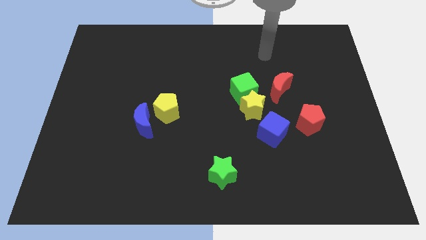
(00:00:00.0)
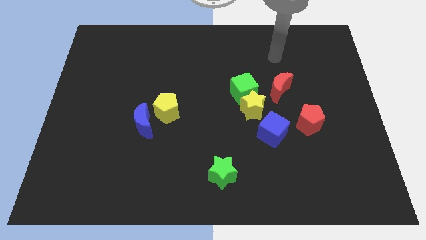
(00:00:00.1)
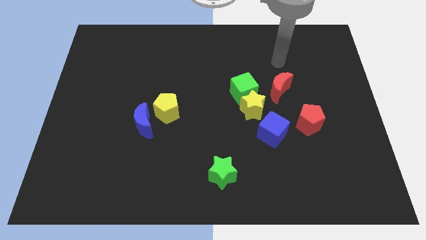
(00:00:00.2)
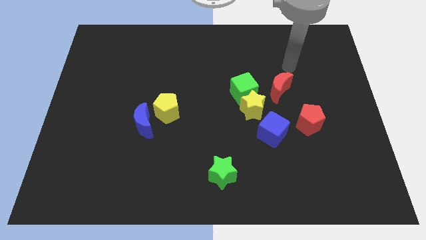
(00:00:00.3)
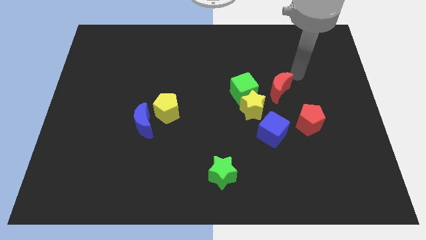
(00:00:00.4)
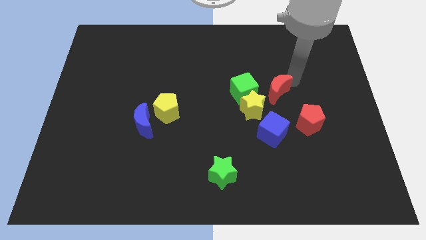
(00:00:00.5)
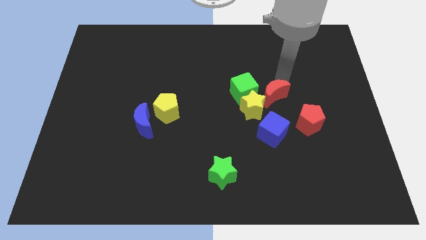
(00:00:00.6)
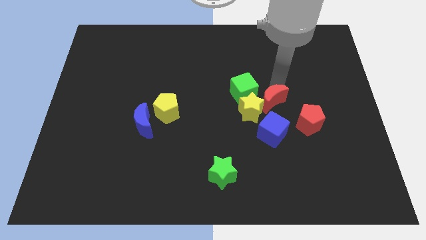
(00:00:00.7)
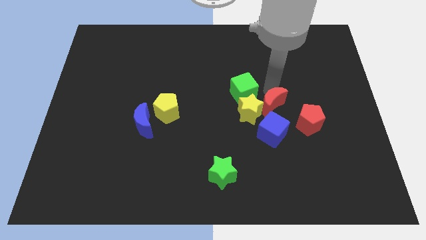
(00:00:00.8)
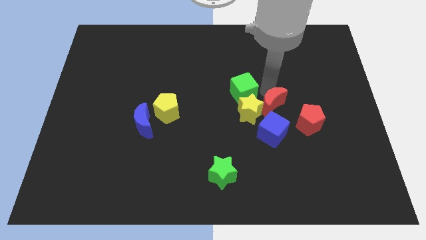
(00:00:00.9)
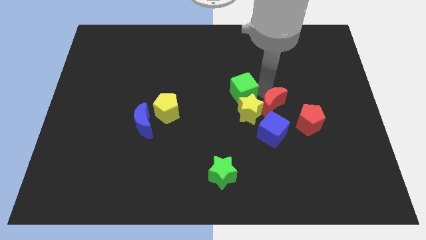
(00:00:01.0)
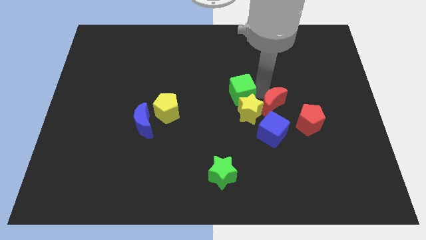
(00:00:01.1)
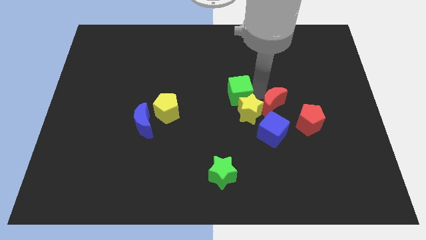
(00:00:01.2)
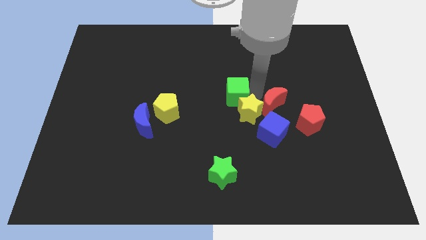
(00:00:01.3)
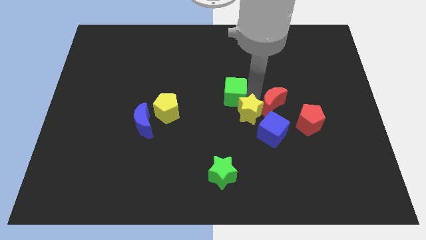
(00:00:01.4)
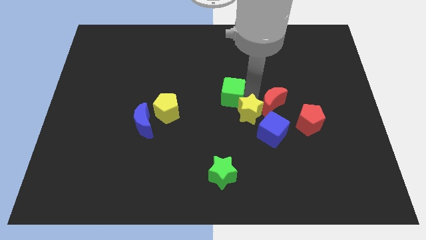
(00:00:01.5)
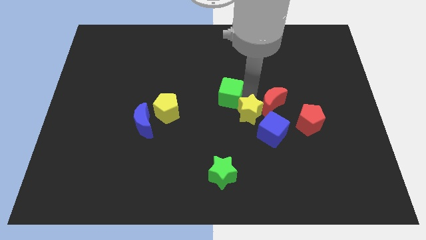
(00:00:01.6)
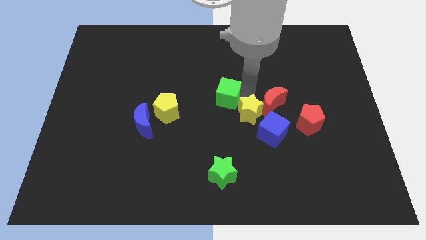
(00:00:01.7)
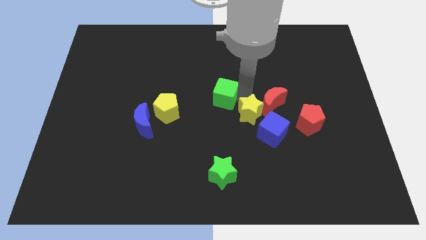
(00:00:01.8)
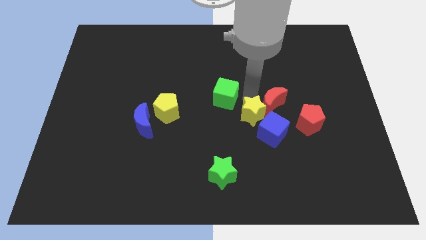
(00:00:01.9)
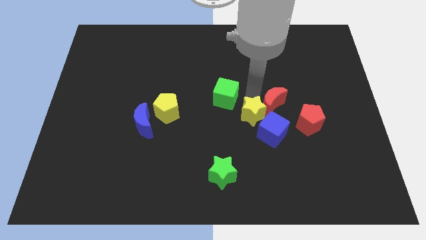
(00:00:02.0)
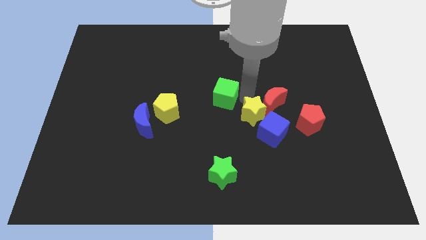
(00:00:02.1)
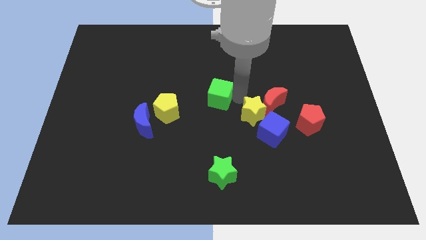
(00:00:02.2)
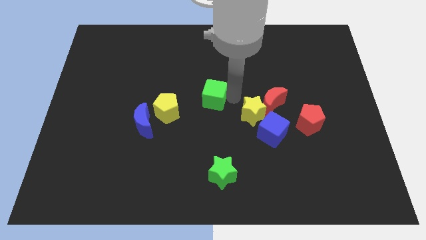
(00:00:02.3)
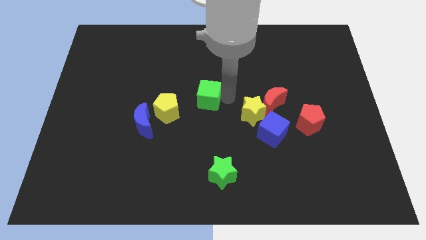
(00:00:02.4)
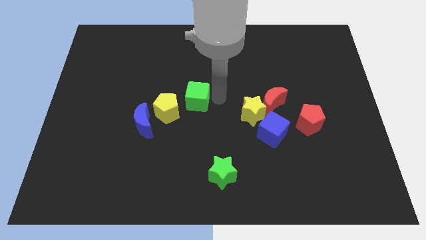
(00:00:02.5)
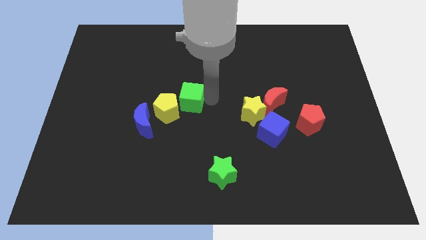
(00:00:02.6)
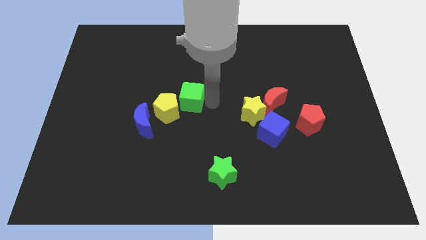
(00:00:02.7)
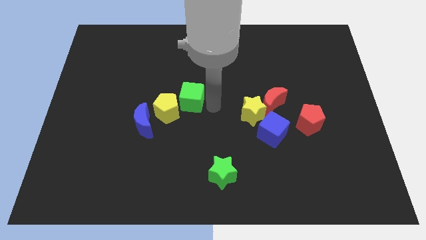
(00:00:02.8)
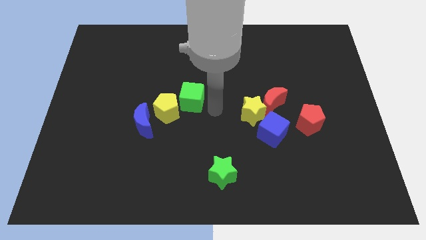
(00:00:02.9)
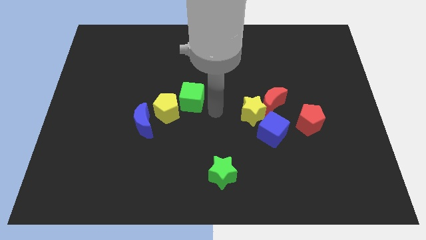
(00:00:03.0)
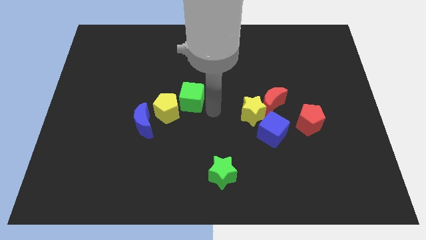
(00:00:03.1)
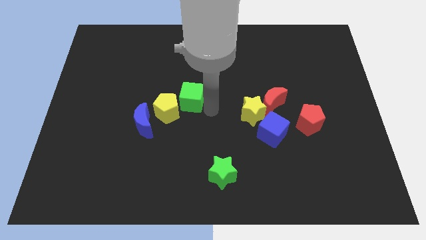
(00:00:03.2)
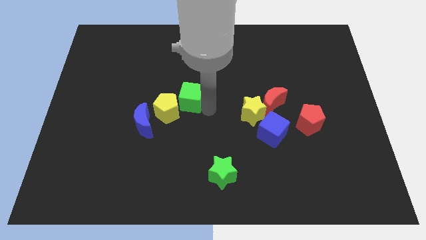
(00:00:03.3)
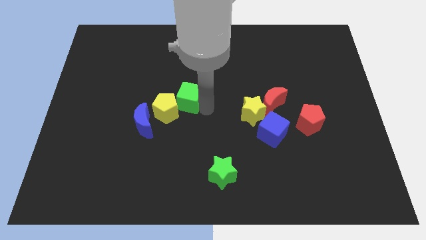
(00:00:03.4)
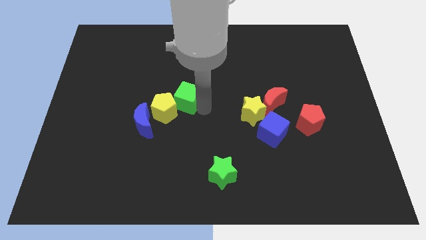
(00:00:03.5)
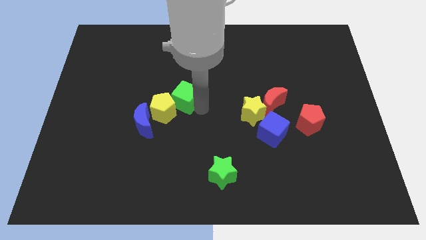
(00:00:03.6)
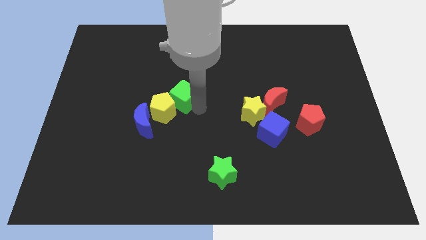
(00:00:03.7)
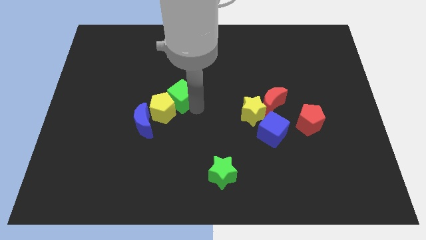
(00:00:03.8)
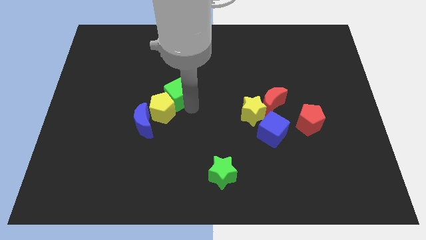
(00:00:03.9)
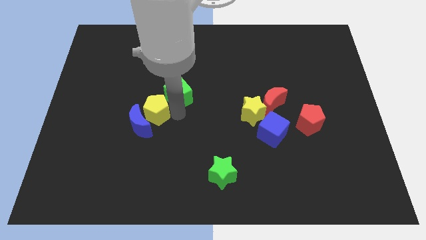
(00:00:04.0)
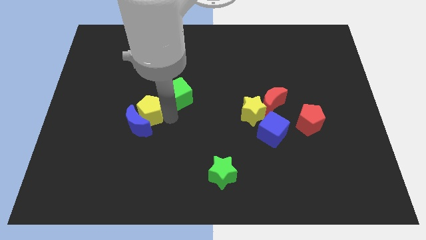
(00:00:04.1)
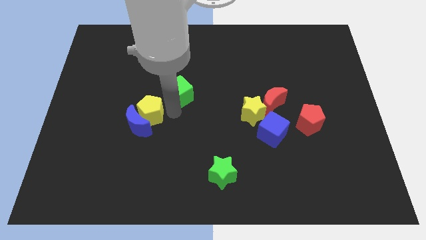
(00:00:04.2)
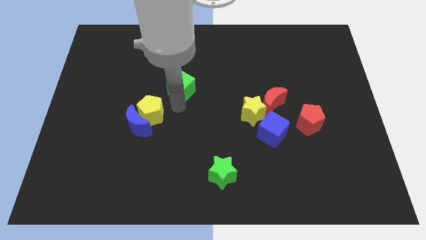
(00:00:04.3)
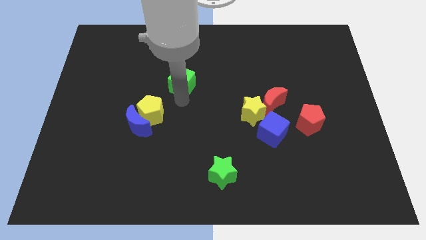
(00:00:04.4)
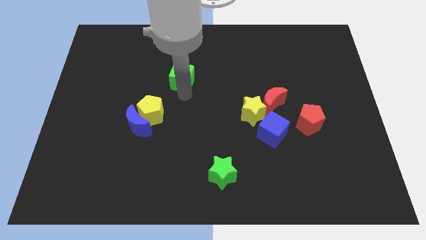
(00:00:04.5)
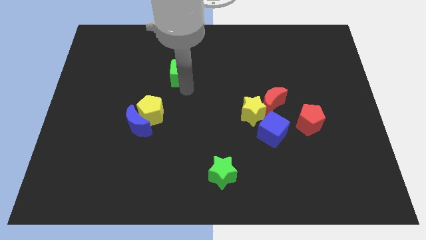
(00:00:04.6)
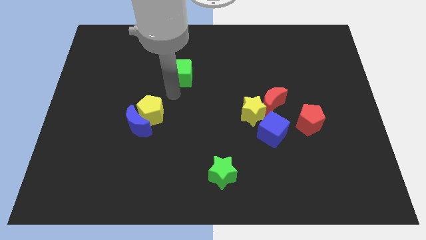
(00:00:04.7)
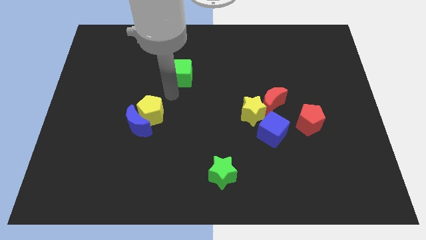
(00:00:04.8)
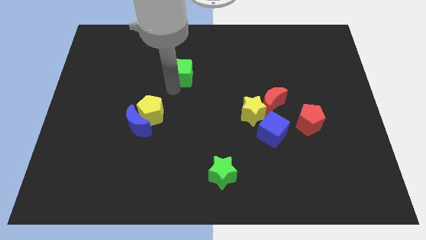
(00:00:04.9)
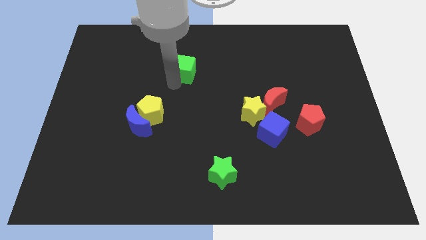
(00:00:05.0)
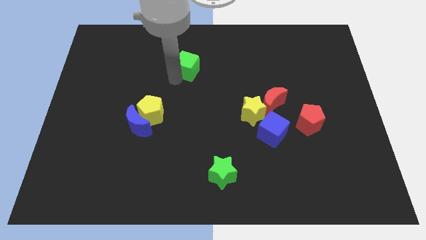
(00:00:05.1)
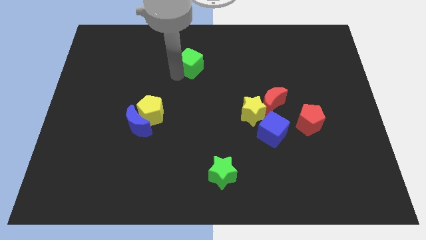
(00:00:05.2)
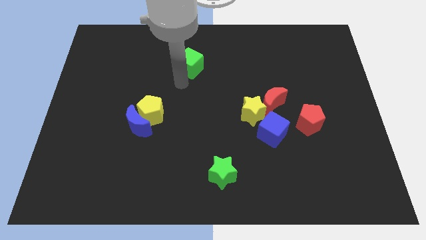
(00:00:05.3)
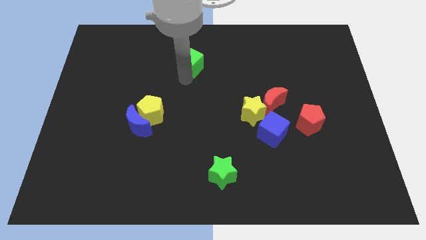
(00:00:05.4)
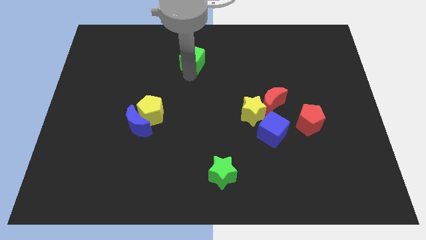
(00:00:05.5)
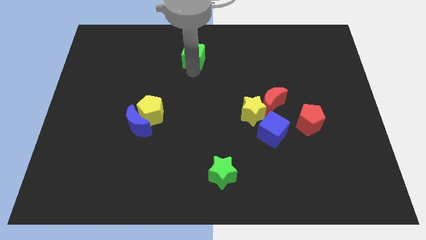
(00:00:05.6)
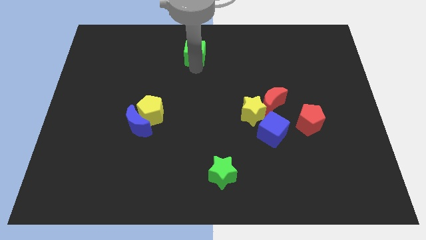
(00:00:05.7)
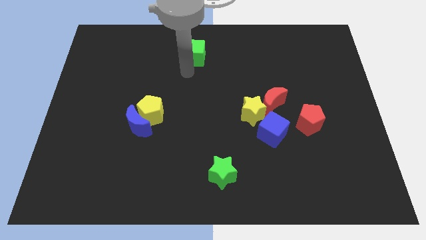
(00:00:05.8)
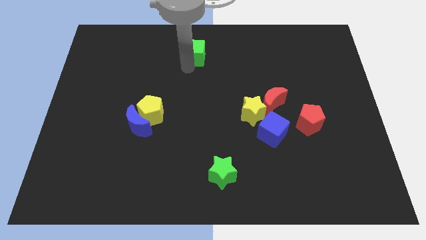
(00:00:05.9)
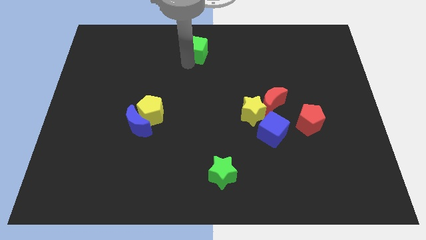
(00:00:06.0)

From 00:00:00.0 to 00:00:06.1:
slide the green cube to the towards your base
